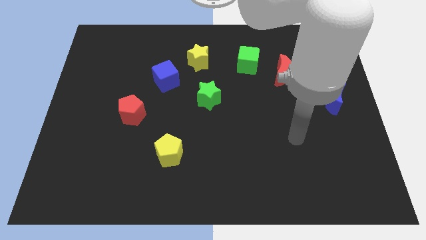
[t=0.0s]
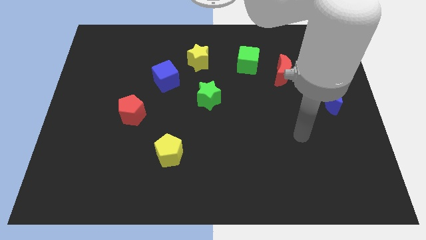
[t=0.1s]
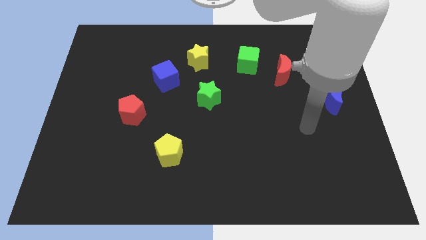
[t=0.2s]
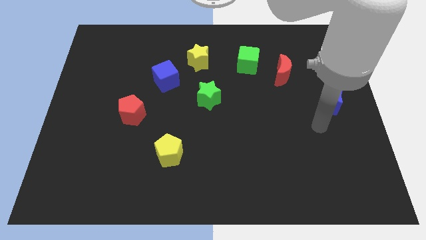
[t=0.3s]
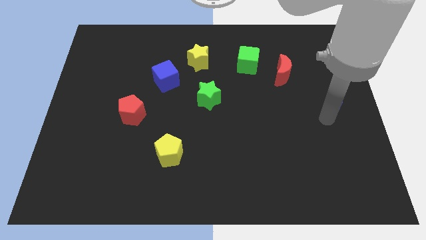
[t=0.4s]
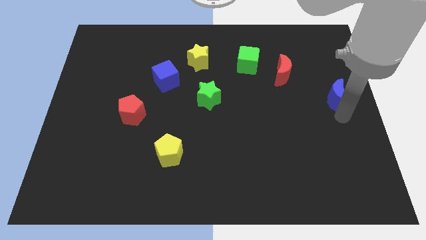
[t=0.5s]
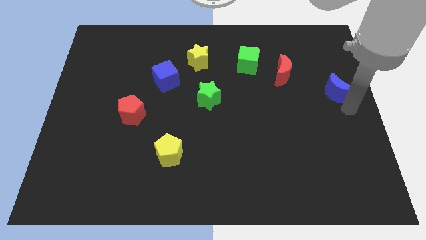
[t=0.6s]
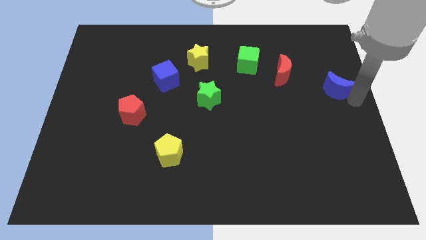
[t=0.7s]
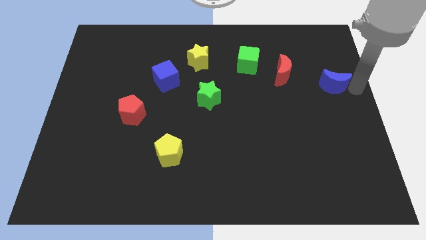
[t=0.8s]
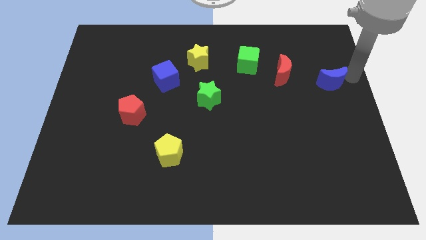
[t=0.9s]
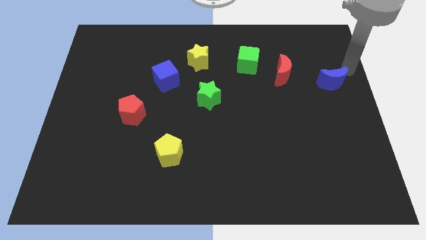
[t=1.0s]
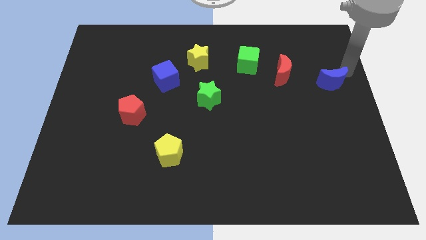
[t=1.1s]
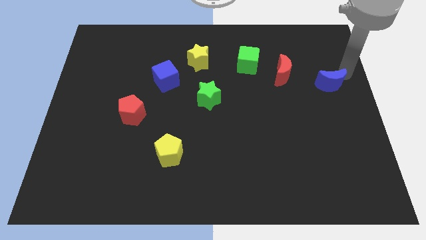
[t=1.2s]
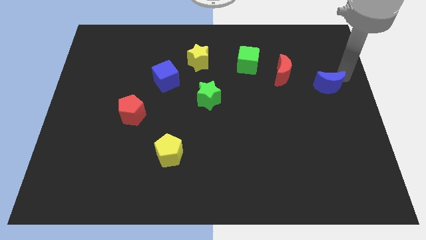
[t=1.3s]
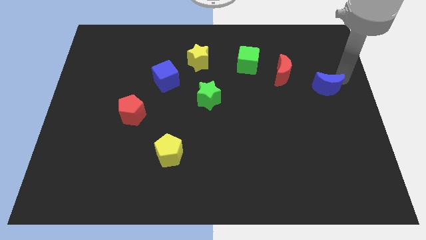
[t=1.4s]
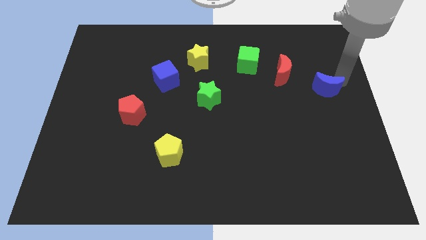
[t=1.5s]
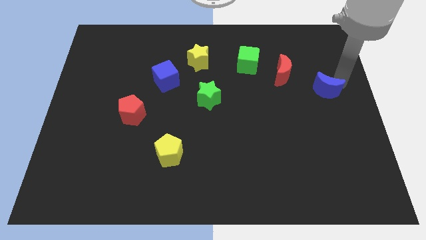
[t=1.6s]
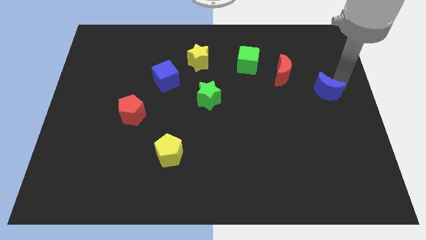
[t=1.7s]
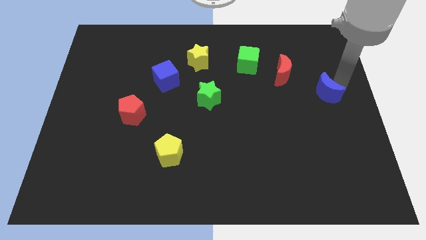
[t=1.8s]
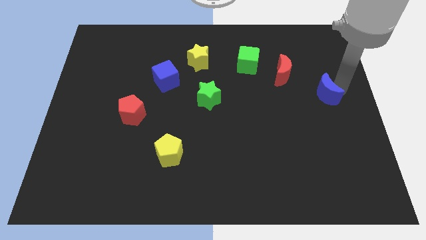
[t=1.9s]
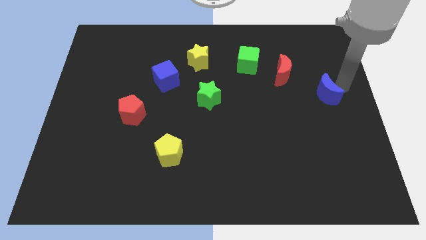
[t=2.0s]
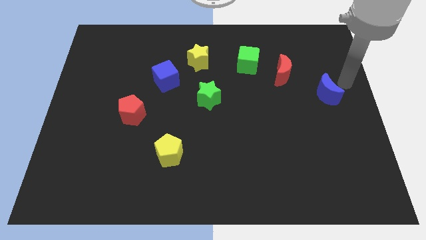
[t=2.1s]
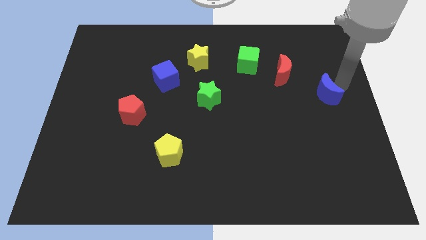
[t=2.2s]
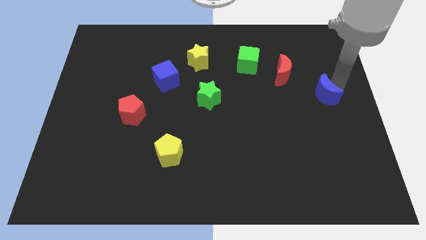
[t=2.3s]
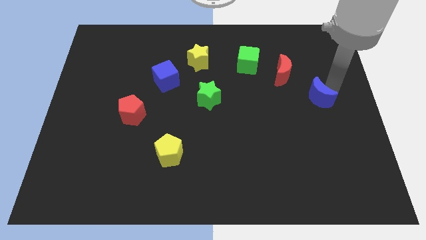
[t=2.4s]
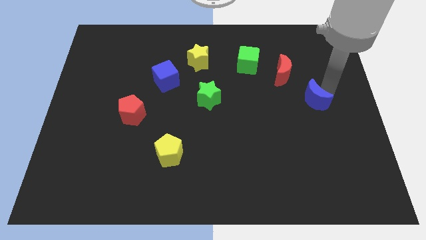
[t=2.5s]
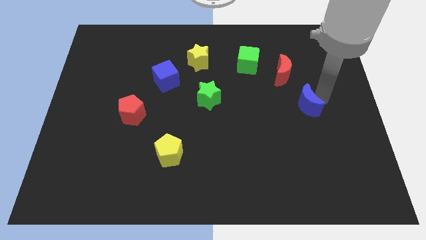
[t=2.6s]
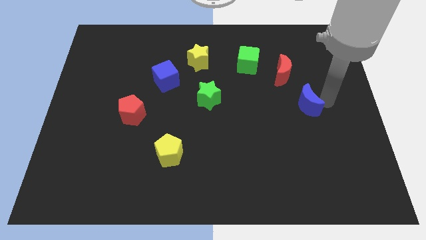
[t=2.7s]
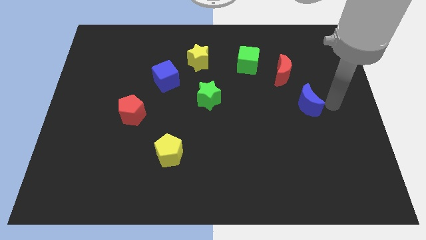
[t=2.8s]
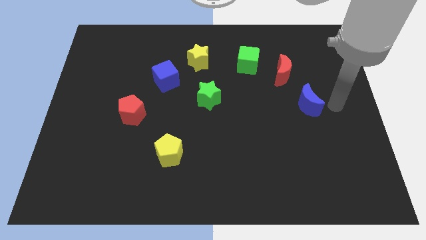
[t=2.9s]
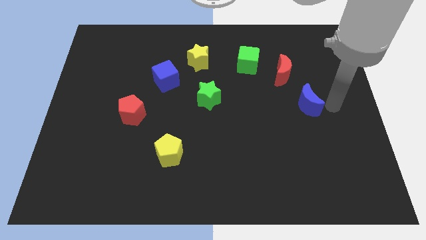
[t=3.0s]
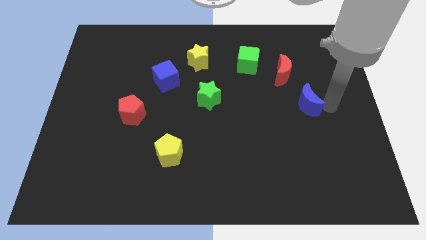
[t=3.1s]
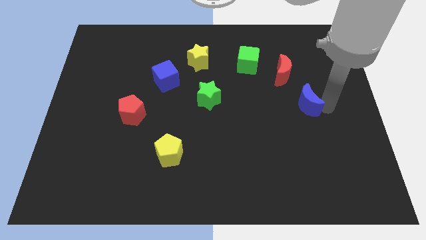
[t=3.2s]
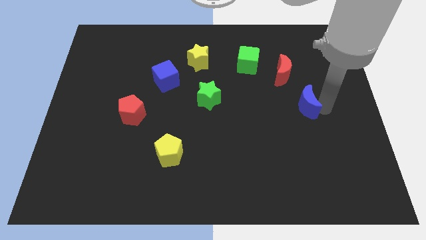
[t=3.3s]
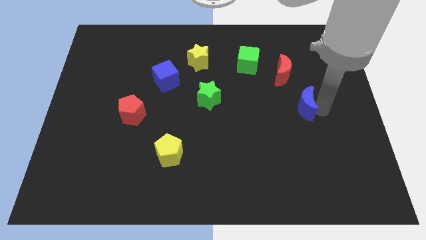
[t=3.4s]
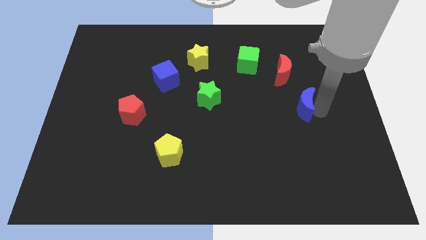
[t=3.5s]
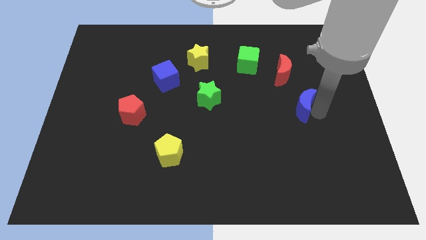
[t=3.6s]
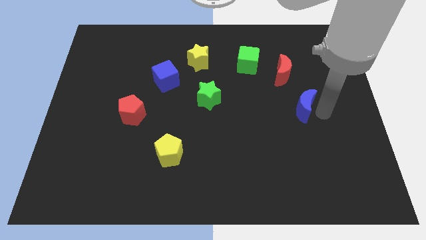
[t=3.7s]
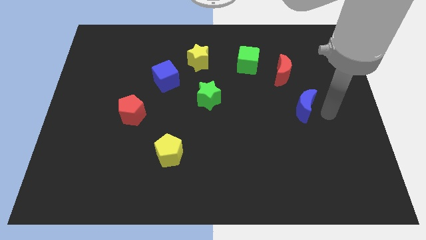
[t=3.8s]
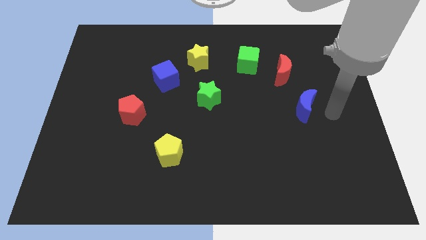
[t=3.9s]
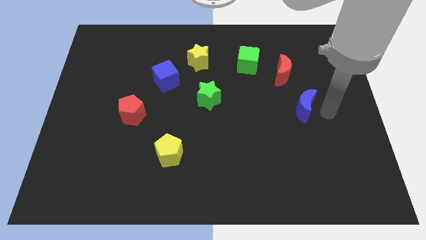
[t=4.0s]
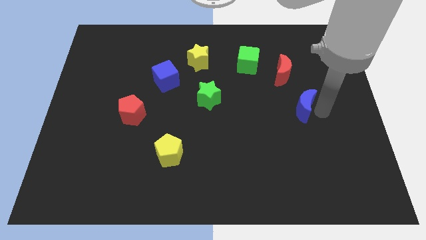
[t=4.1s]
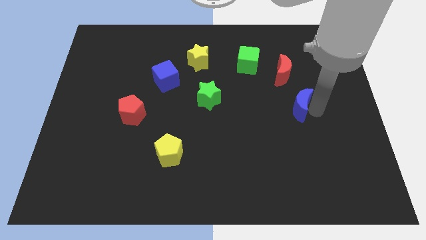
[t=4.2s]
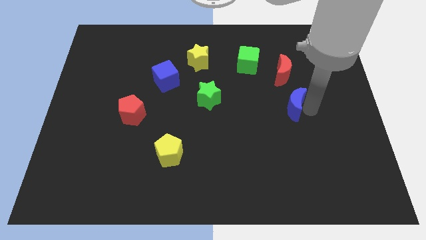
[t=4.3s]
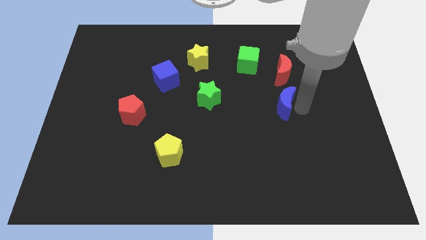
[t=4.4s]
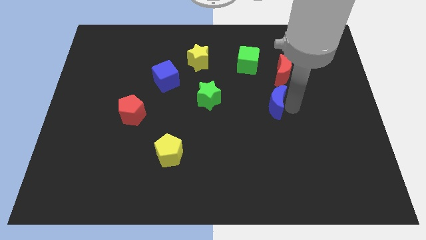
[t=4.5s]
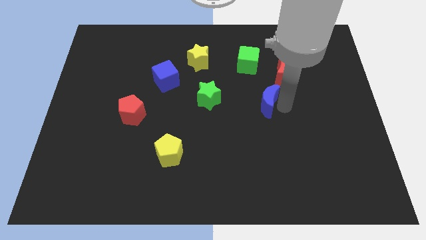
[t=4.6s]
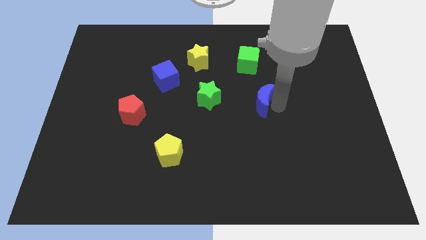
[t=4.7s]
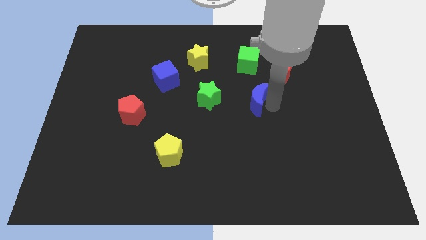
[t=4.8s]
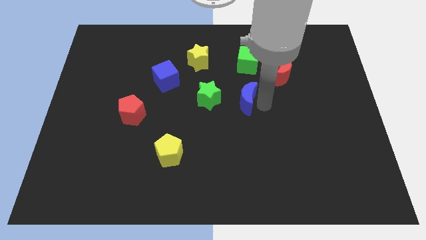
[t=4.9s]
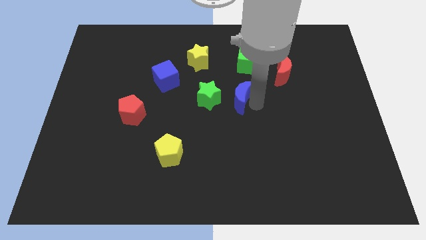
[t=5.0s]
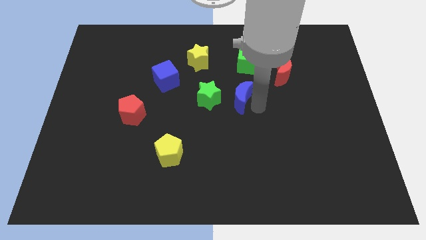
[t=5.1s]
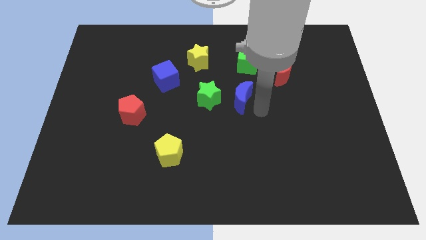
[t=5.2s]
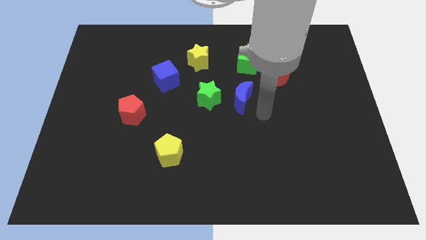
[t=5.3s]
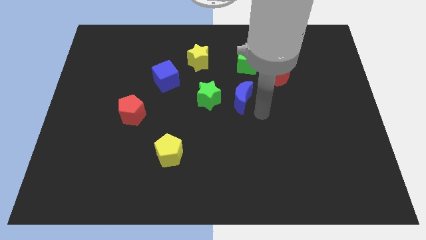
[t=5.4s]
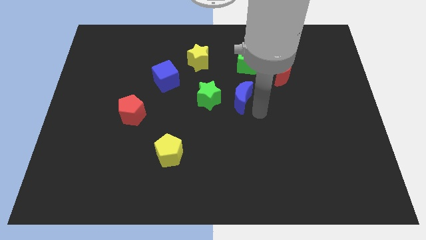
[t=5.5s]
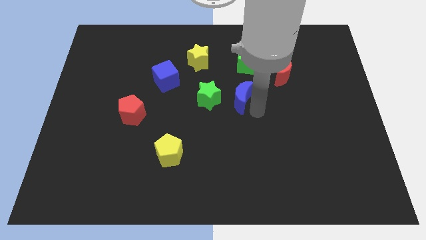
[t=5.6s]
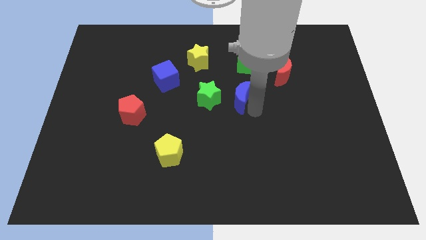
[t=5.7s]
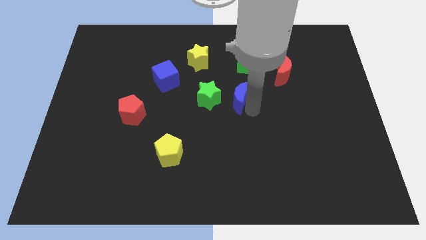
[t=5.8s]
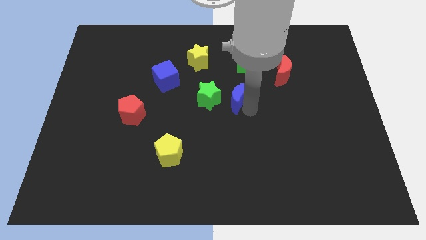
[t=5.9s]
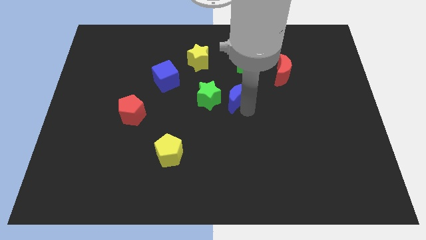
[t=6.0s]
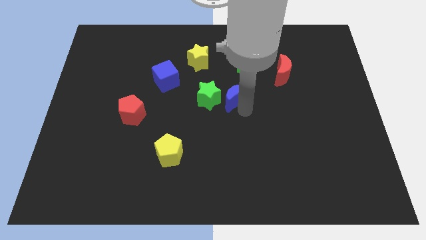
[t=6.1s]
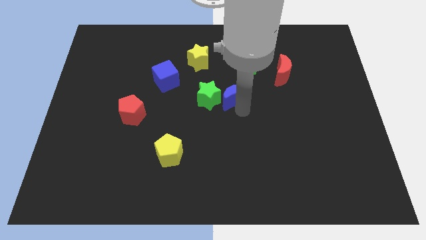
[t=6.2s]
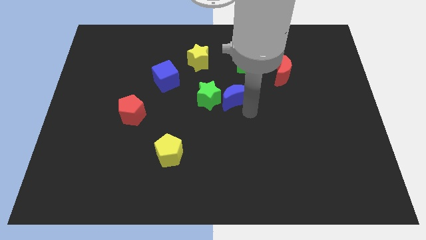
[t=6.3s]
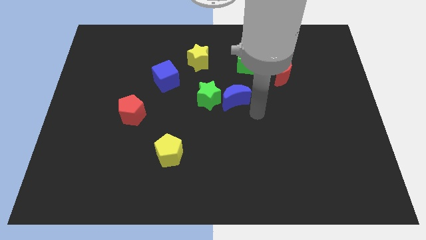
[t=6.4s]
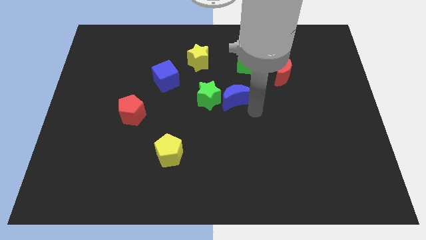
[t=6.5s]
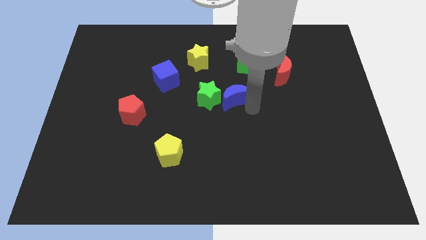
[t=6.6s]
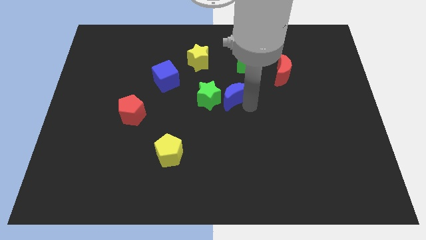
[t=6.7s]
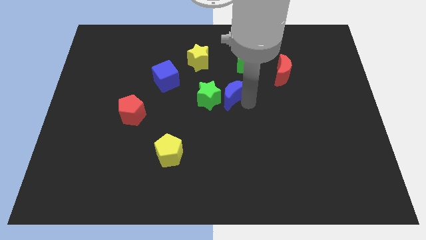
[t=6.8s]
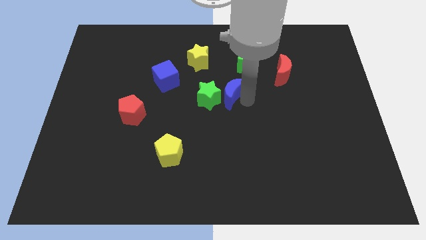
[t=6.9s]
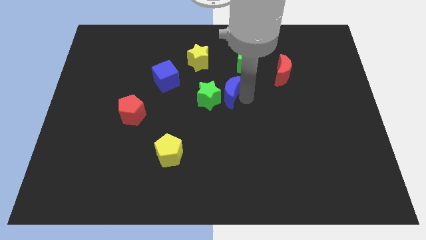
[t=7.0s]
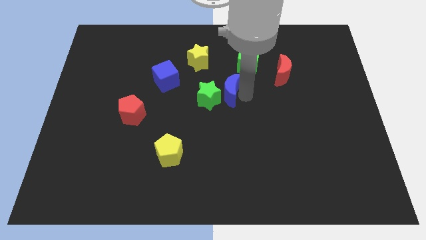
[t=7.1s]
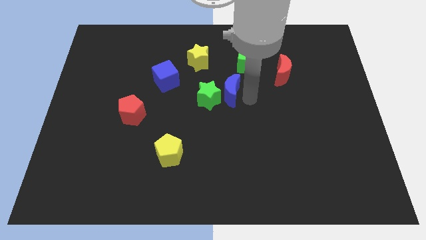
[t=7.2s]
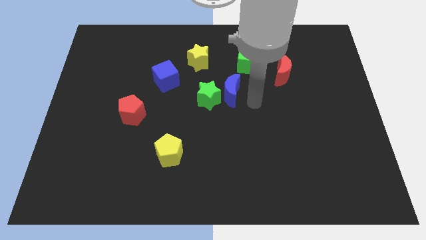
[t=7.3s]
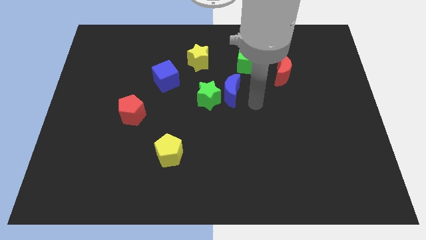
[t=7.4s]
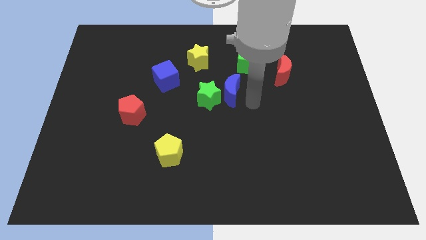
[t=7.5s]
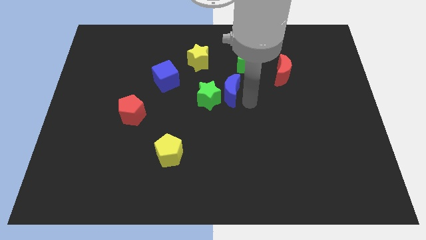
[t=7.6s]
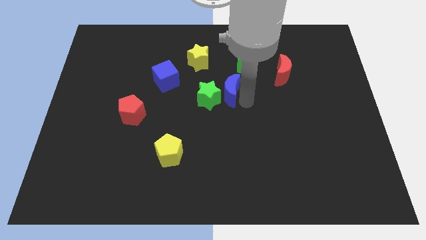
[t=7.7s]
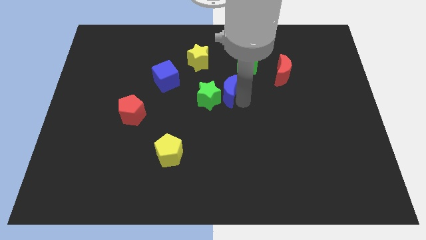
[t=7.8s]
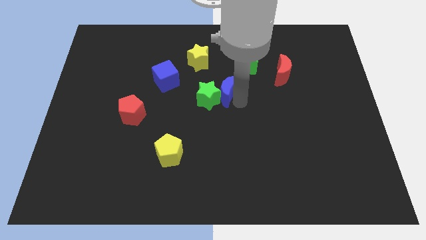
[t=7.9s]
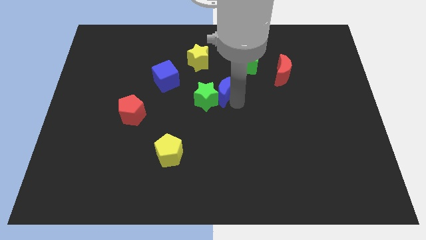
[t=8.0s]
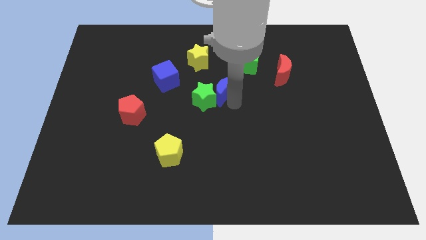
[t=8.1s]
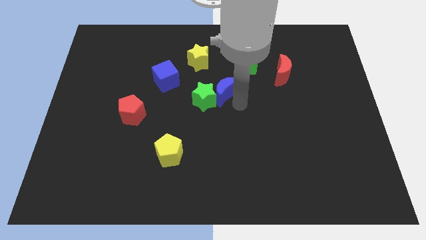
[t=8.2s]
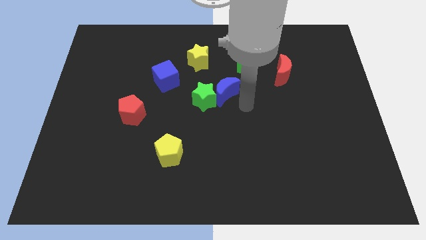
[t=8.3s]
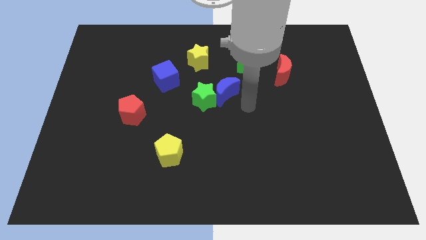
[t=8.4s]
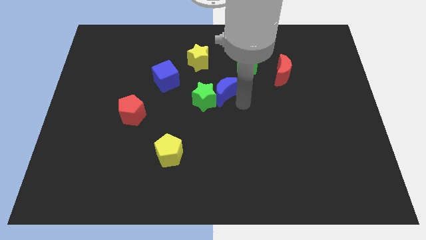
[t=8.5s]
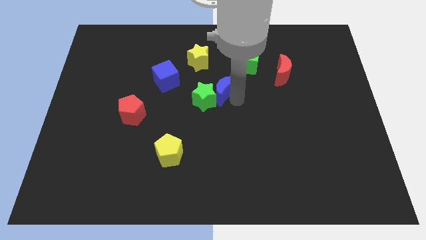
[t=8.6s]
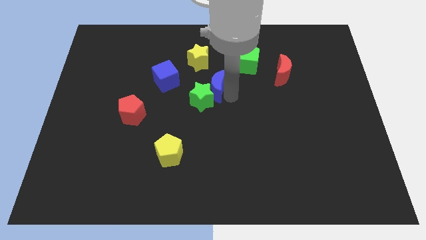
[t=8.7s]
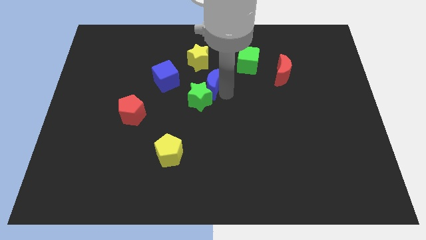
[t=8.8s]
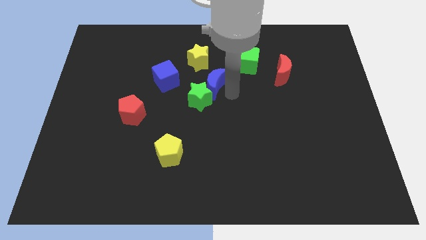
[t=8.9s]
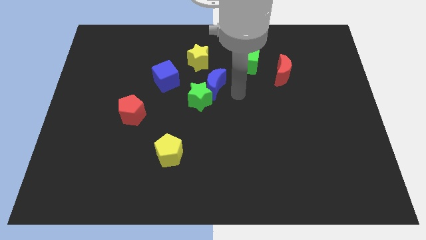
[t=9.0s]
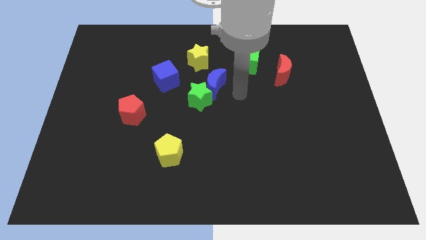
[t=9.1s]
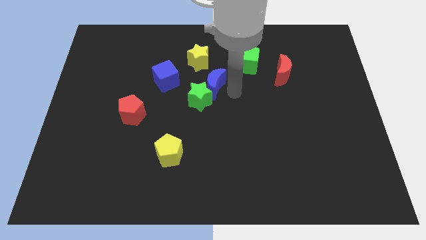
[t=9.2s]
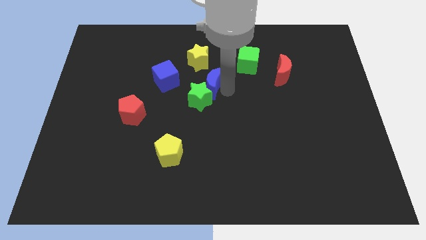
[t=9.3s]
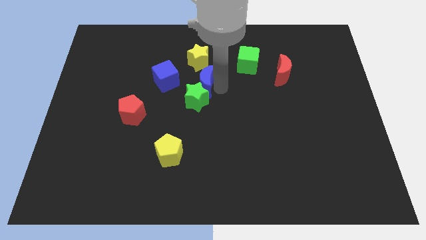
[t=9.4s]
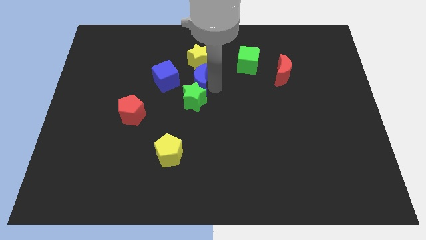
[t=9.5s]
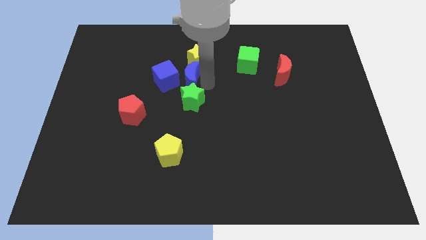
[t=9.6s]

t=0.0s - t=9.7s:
move the blue moon towards the blue cube
